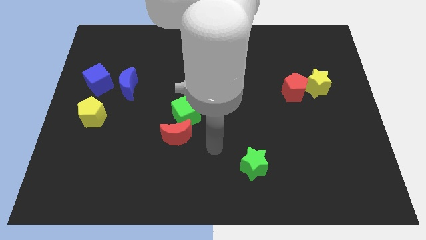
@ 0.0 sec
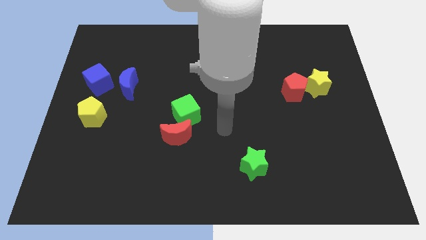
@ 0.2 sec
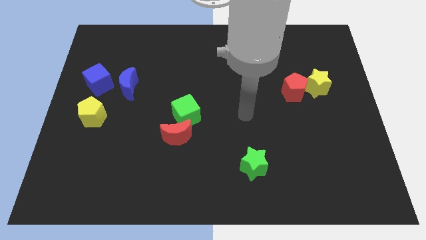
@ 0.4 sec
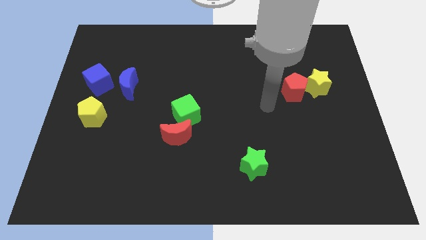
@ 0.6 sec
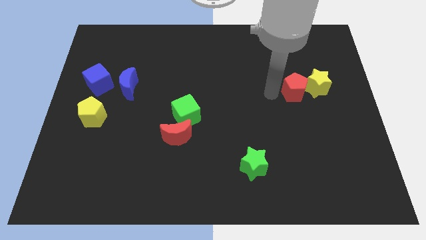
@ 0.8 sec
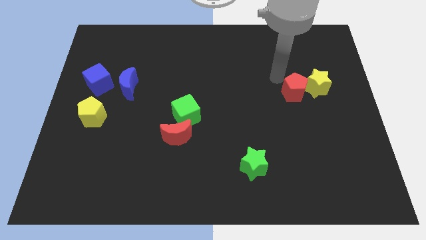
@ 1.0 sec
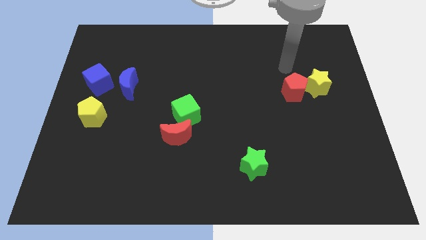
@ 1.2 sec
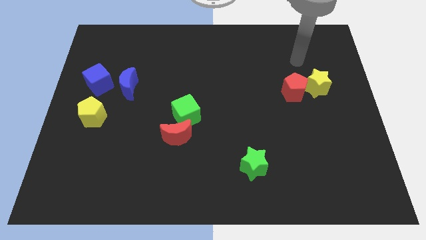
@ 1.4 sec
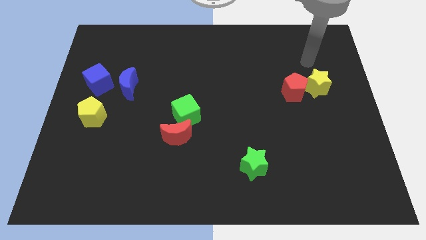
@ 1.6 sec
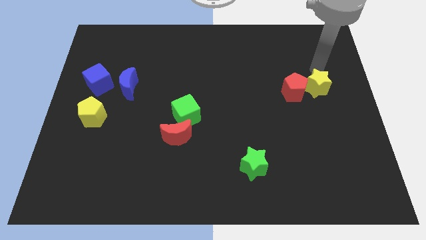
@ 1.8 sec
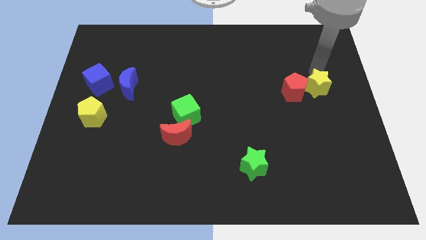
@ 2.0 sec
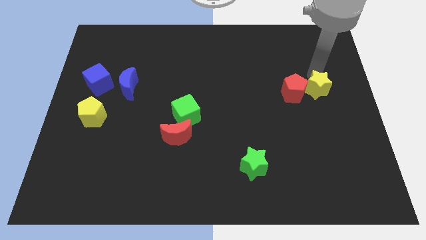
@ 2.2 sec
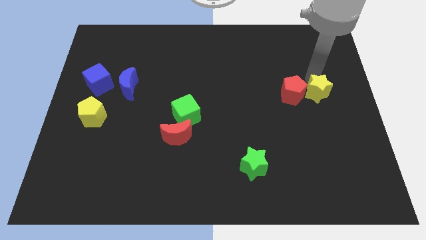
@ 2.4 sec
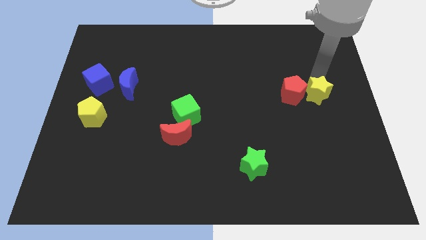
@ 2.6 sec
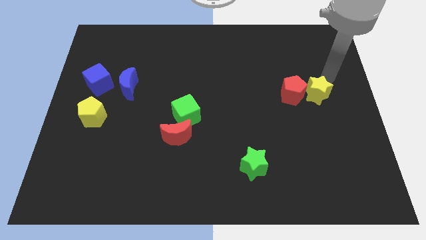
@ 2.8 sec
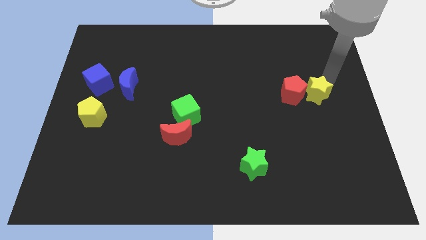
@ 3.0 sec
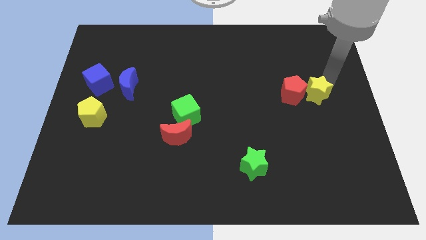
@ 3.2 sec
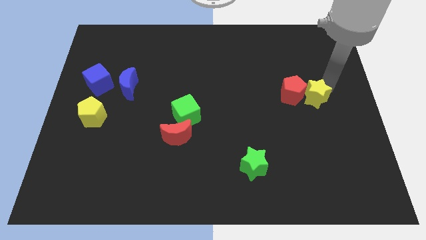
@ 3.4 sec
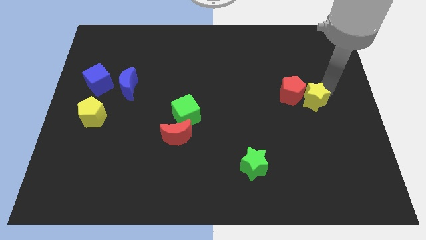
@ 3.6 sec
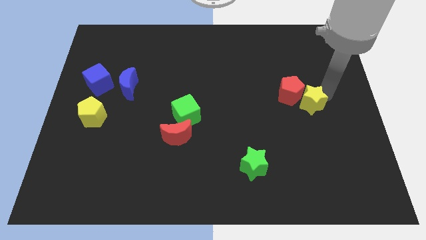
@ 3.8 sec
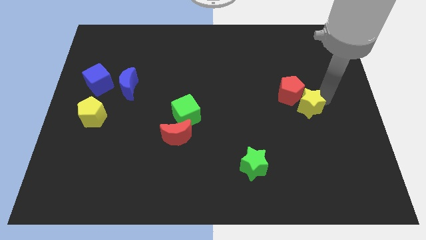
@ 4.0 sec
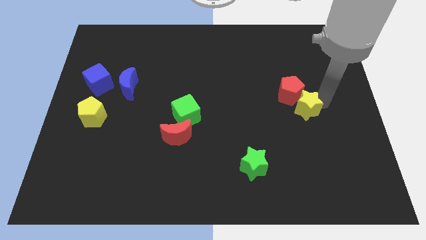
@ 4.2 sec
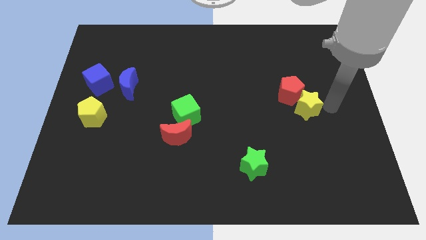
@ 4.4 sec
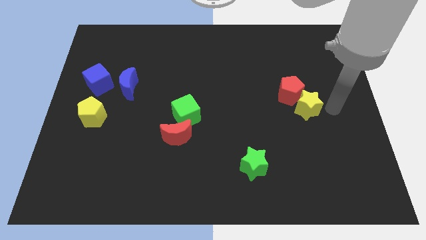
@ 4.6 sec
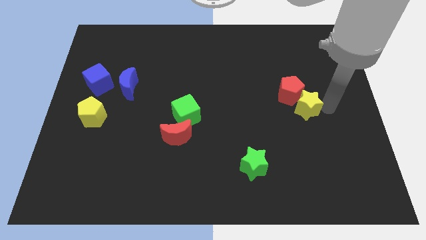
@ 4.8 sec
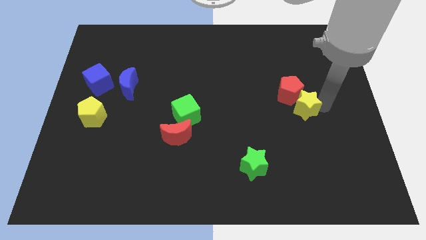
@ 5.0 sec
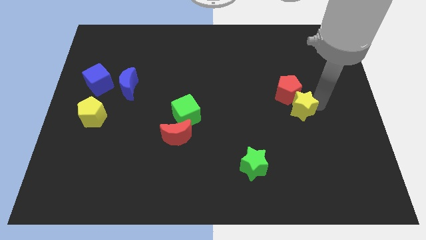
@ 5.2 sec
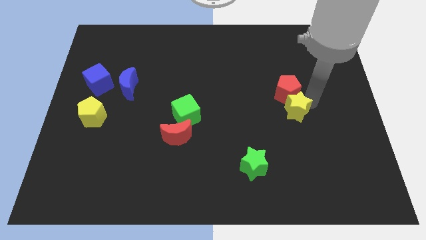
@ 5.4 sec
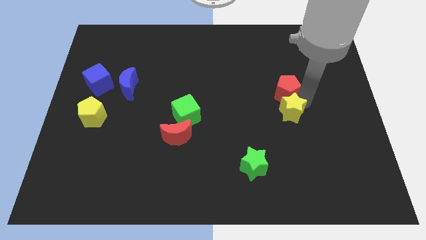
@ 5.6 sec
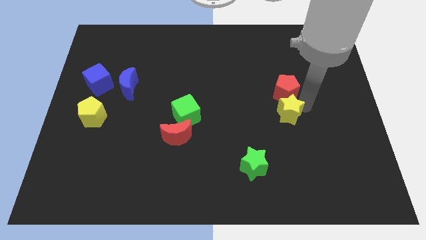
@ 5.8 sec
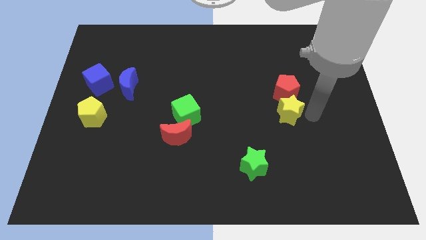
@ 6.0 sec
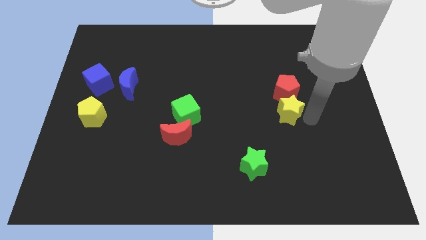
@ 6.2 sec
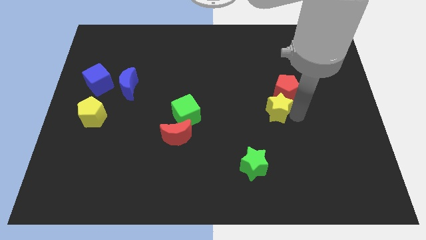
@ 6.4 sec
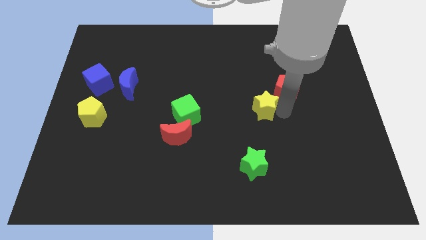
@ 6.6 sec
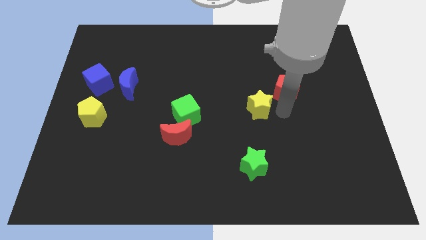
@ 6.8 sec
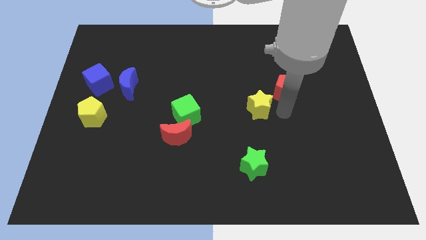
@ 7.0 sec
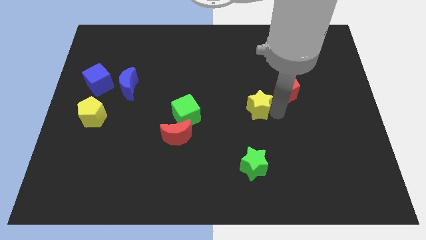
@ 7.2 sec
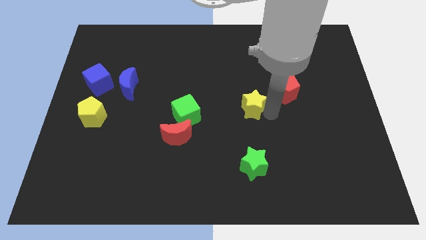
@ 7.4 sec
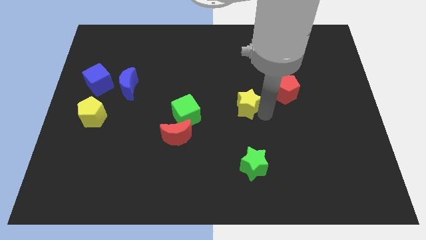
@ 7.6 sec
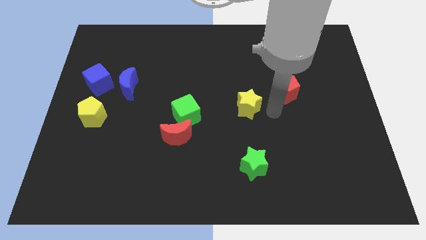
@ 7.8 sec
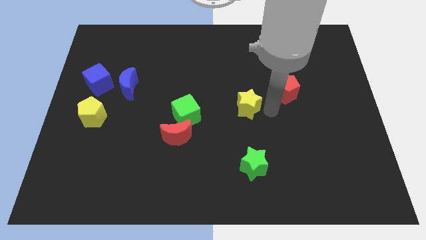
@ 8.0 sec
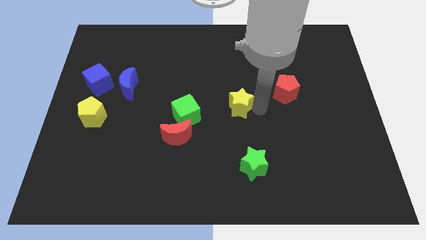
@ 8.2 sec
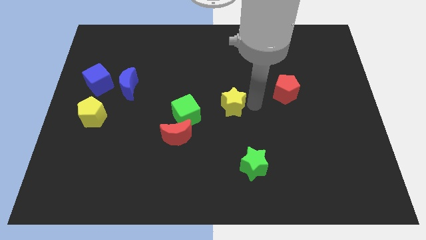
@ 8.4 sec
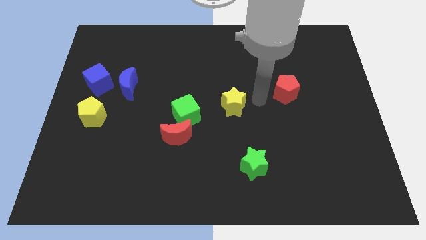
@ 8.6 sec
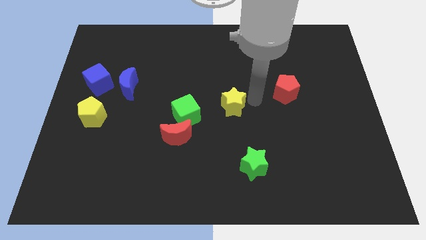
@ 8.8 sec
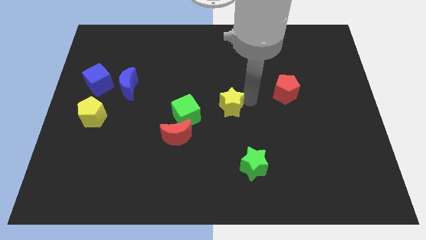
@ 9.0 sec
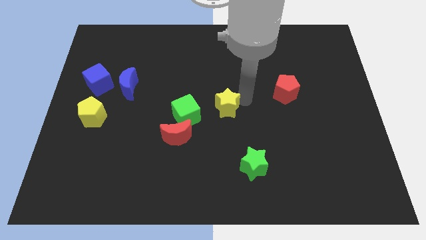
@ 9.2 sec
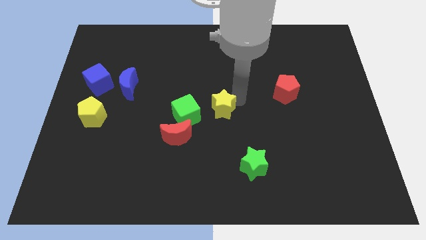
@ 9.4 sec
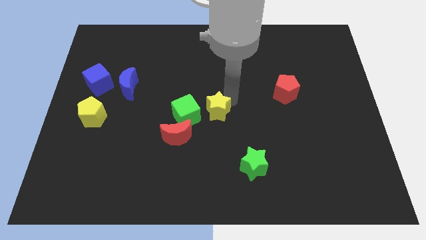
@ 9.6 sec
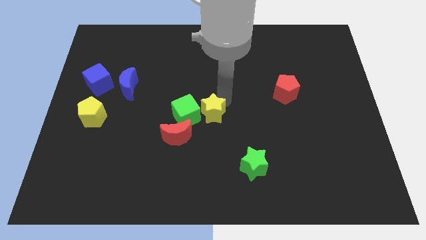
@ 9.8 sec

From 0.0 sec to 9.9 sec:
slide the yellow star to the green cube

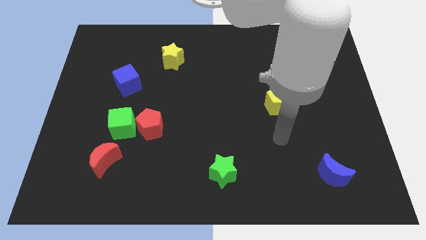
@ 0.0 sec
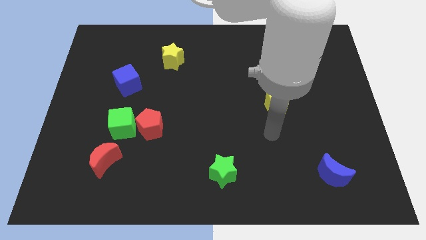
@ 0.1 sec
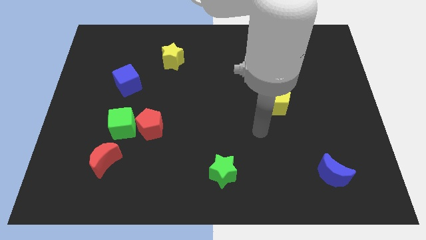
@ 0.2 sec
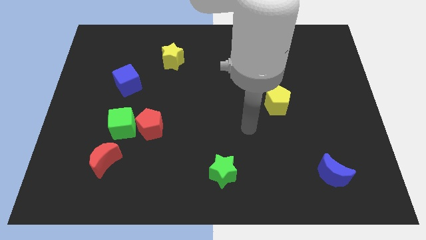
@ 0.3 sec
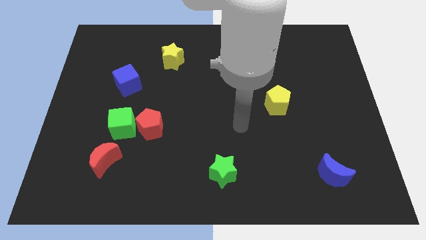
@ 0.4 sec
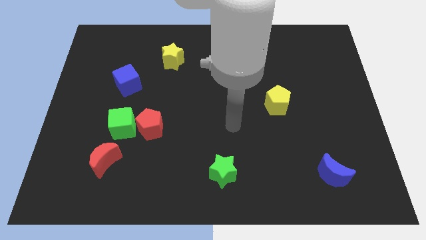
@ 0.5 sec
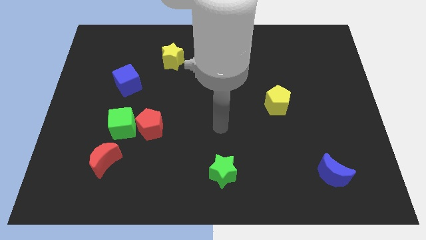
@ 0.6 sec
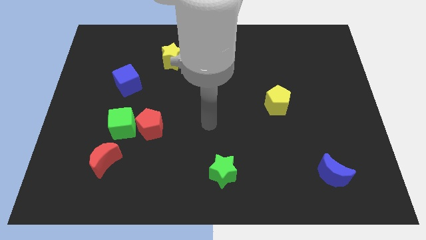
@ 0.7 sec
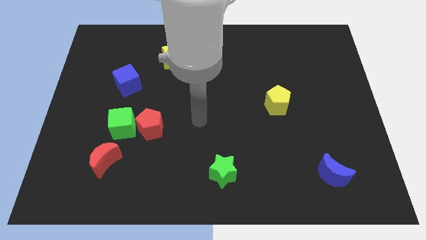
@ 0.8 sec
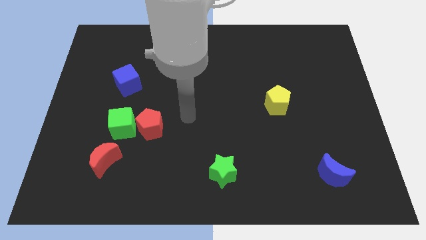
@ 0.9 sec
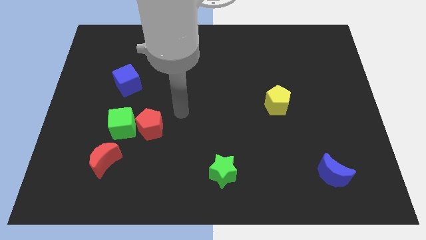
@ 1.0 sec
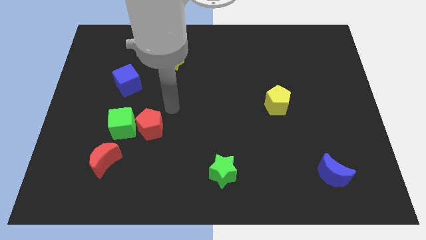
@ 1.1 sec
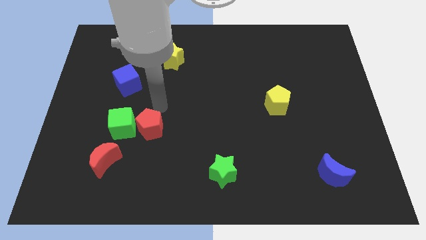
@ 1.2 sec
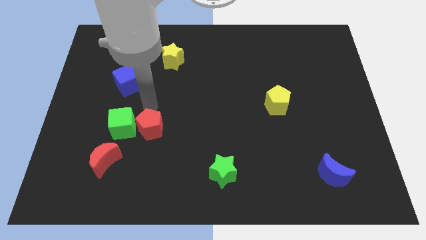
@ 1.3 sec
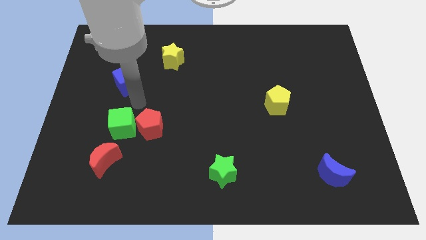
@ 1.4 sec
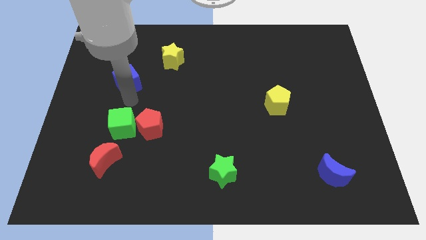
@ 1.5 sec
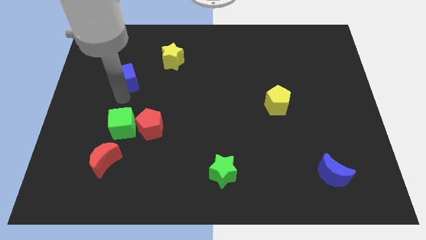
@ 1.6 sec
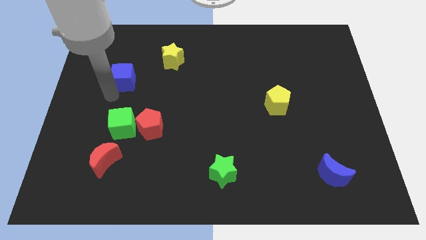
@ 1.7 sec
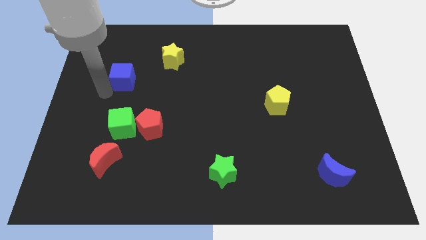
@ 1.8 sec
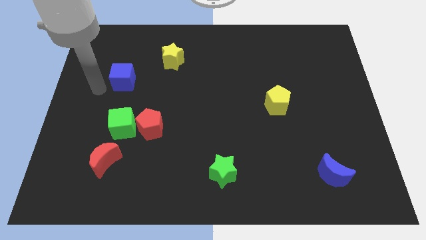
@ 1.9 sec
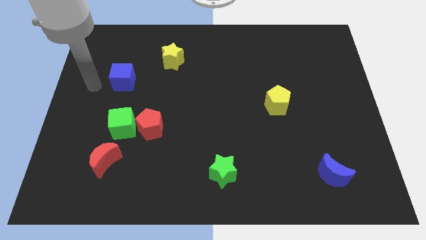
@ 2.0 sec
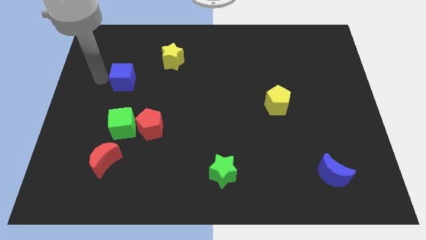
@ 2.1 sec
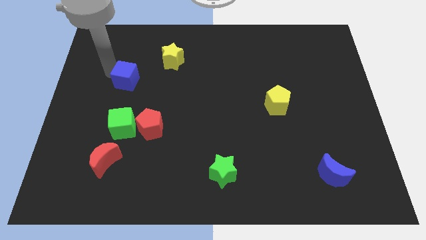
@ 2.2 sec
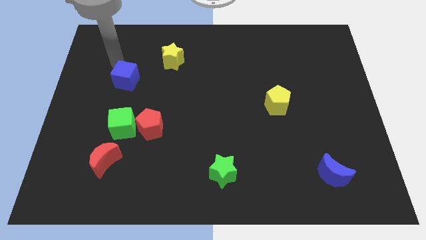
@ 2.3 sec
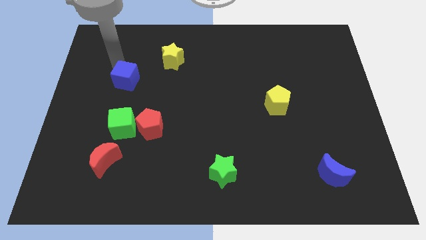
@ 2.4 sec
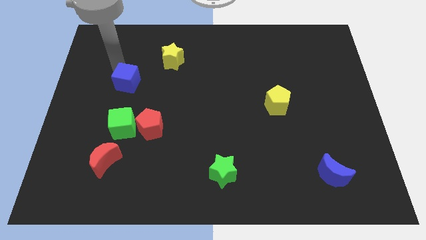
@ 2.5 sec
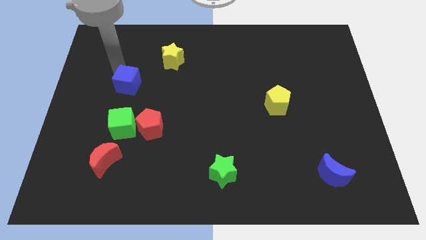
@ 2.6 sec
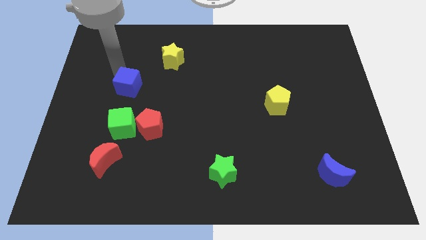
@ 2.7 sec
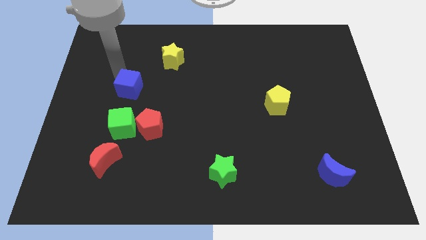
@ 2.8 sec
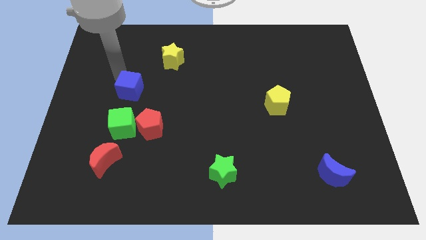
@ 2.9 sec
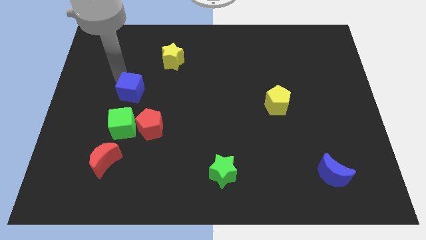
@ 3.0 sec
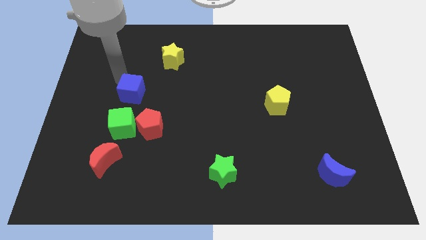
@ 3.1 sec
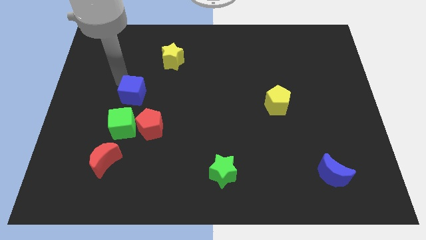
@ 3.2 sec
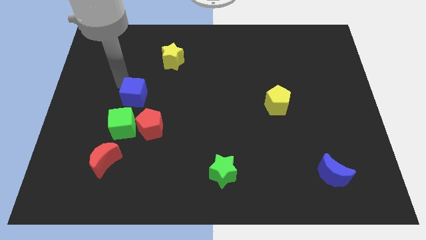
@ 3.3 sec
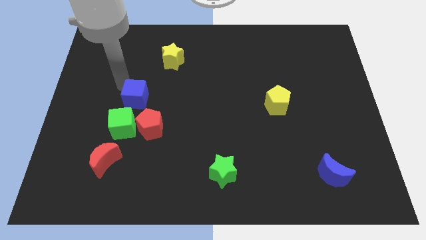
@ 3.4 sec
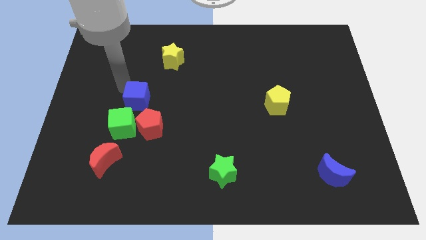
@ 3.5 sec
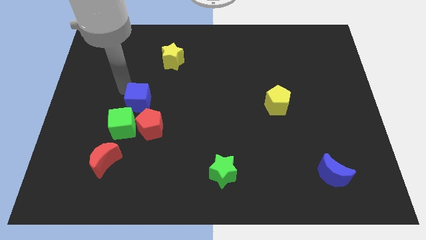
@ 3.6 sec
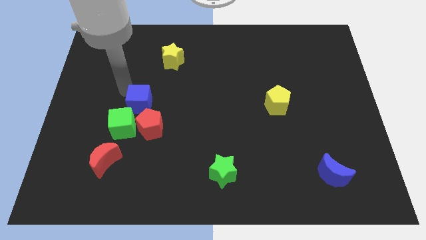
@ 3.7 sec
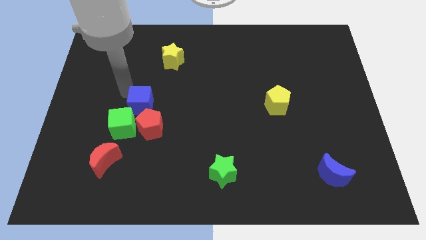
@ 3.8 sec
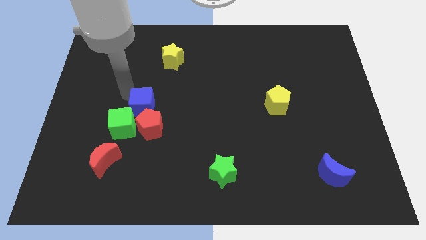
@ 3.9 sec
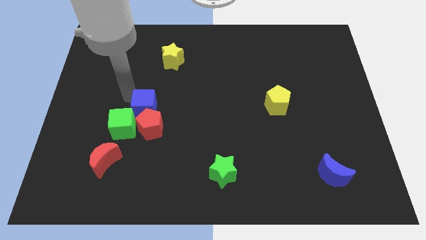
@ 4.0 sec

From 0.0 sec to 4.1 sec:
push the blue cube to the red pentagon
